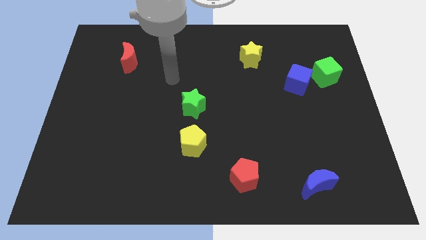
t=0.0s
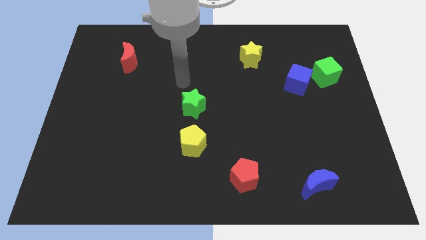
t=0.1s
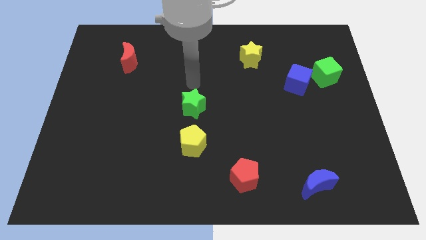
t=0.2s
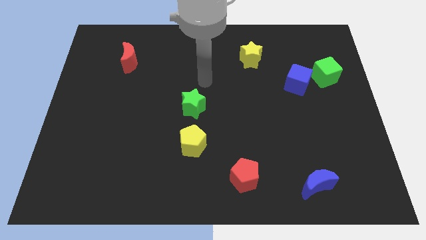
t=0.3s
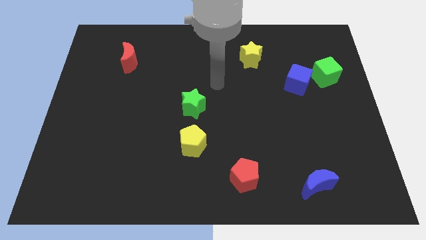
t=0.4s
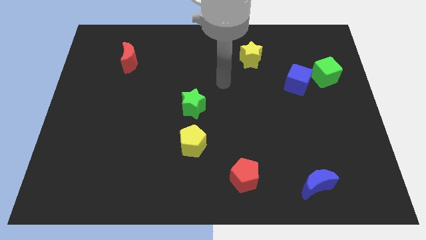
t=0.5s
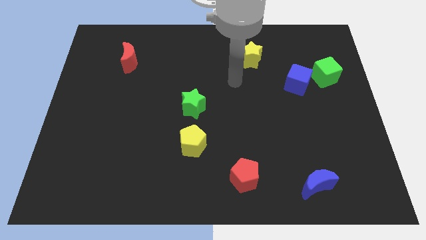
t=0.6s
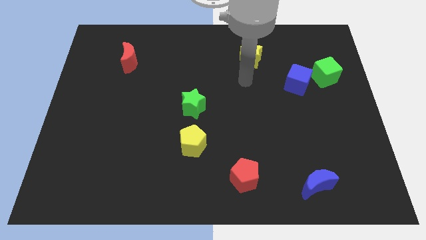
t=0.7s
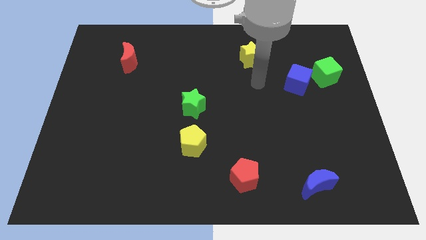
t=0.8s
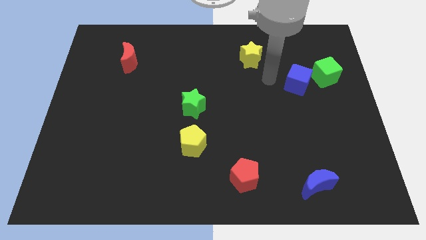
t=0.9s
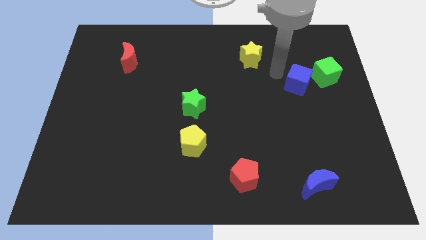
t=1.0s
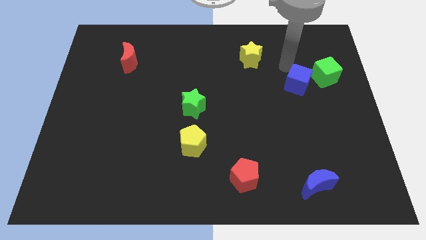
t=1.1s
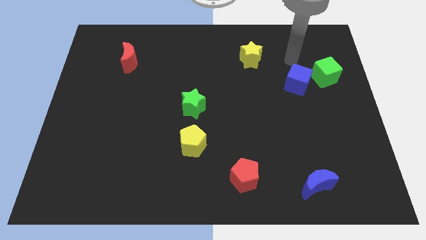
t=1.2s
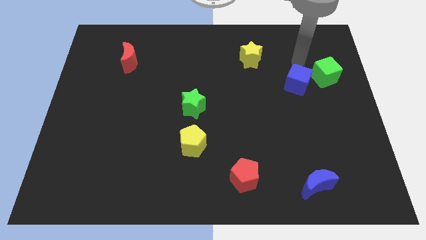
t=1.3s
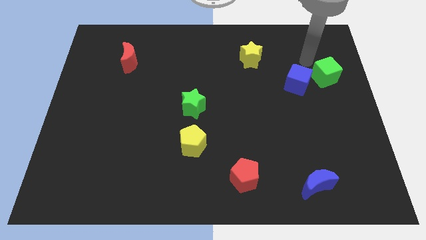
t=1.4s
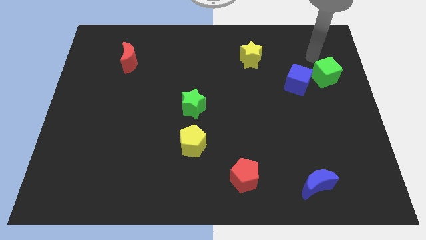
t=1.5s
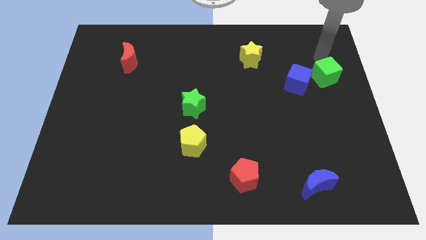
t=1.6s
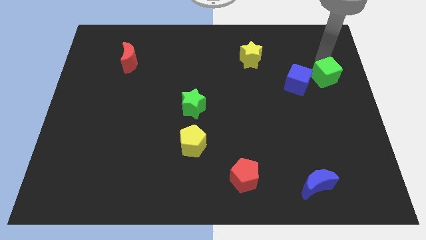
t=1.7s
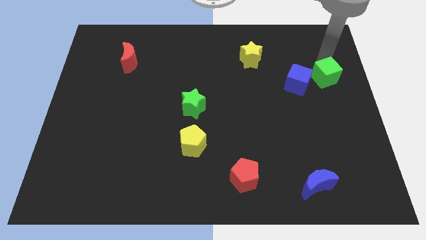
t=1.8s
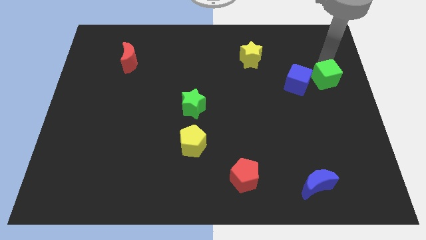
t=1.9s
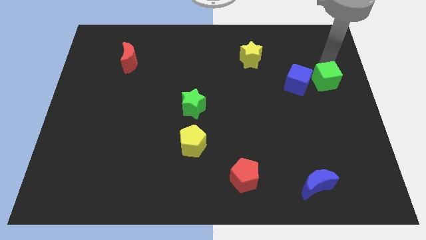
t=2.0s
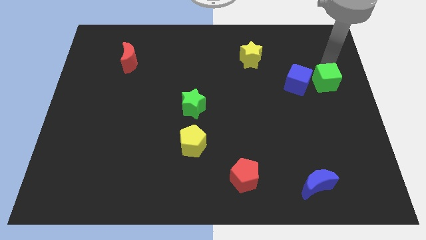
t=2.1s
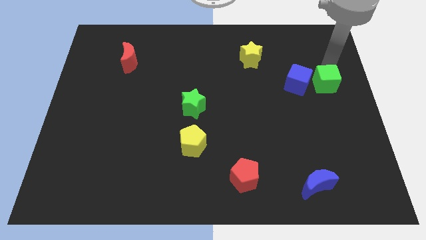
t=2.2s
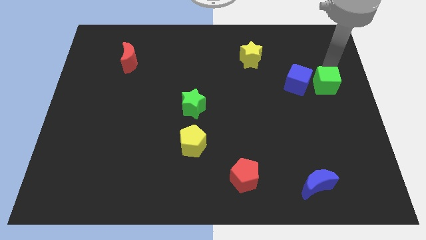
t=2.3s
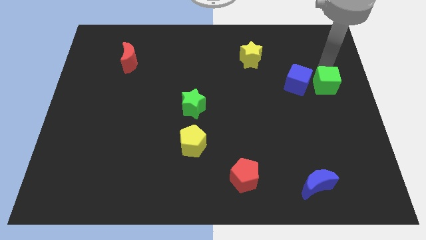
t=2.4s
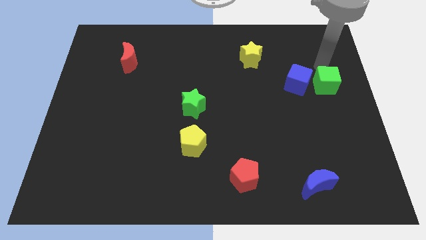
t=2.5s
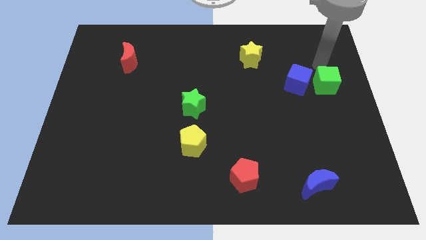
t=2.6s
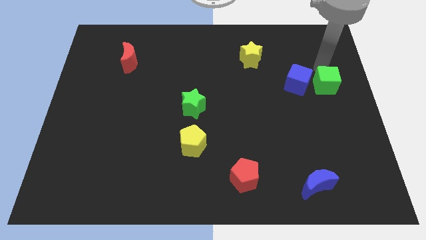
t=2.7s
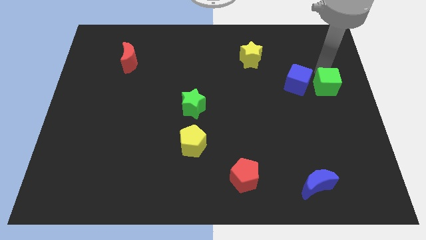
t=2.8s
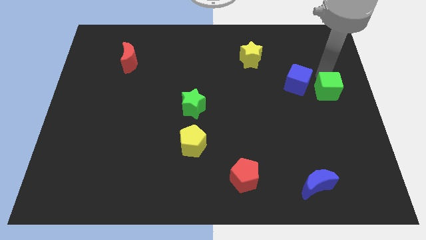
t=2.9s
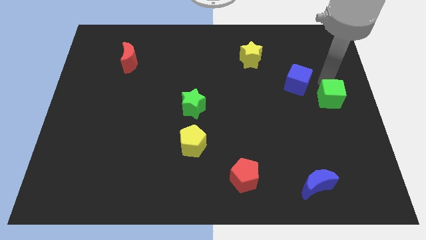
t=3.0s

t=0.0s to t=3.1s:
slightly slide the green cube downwards

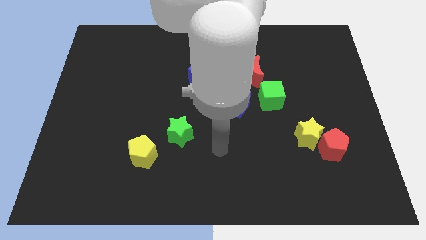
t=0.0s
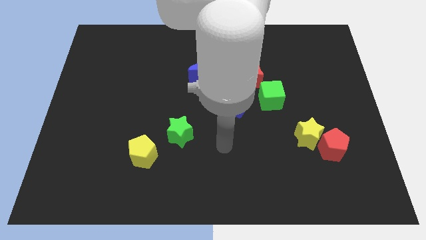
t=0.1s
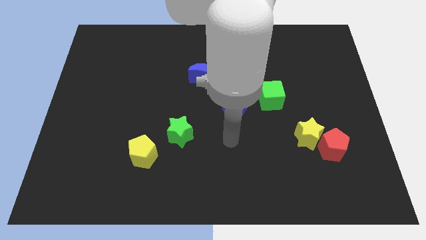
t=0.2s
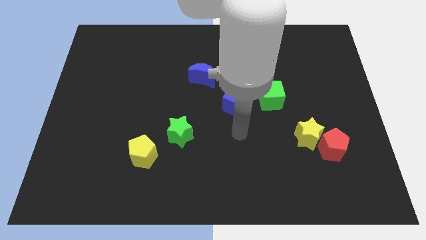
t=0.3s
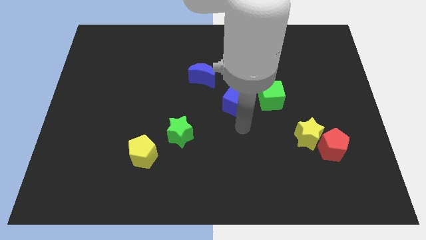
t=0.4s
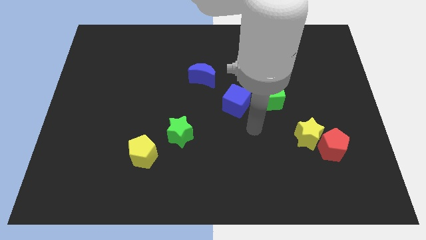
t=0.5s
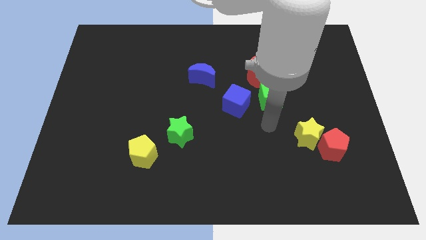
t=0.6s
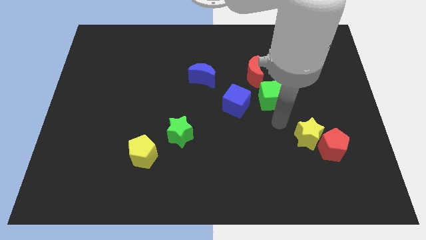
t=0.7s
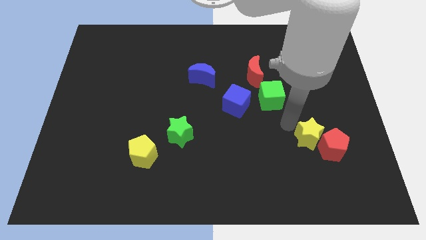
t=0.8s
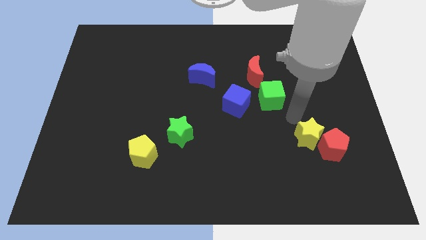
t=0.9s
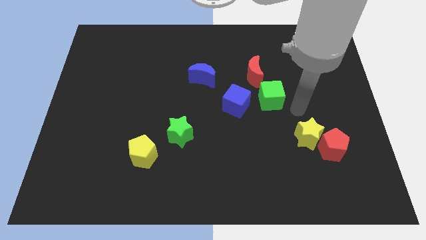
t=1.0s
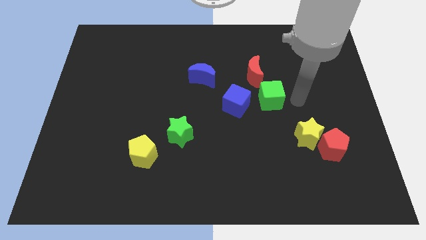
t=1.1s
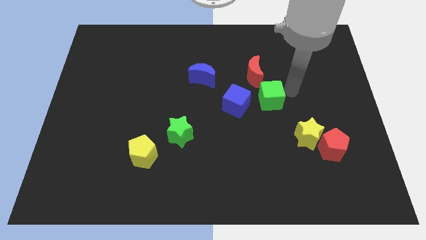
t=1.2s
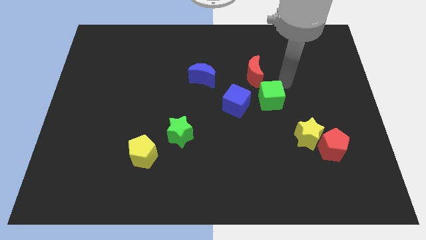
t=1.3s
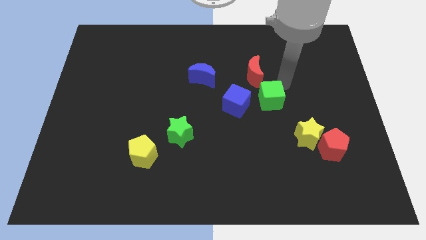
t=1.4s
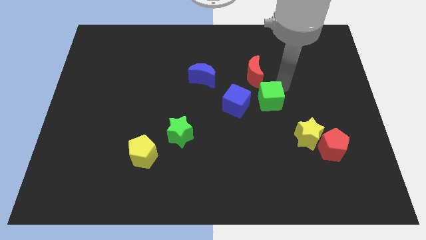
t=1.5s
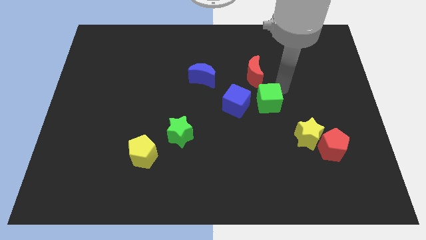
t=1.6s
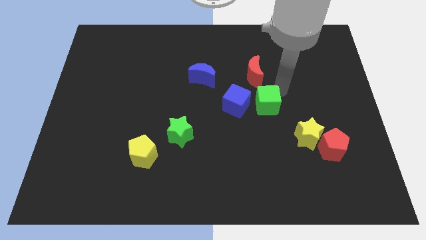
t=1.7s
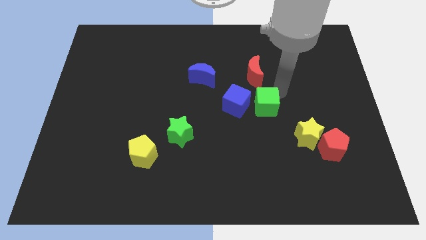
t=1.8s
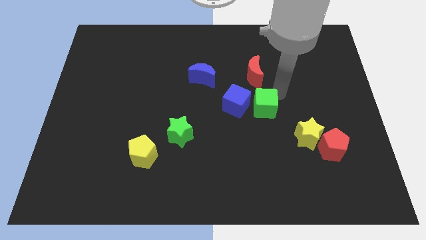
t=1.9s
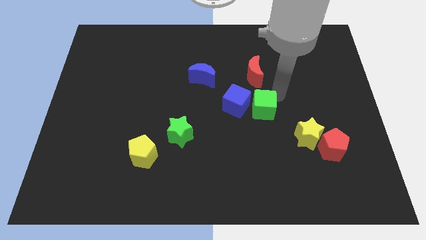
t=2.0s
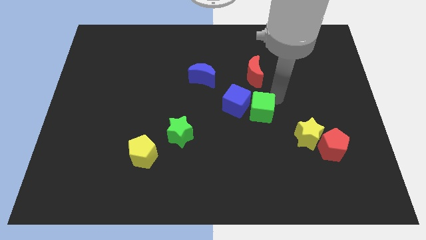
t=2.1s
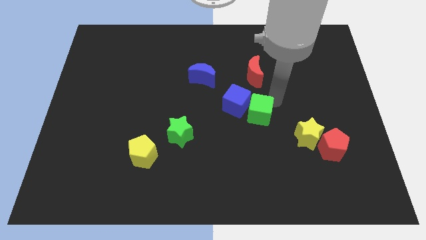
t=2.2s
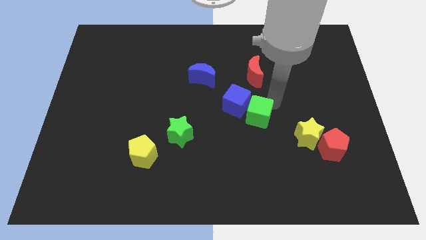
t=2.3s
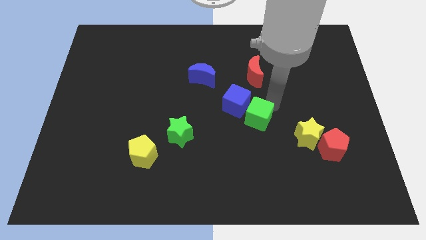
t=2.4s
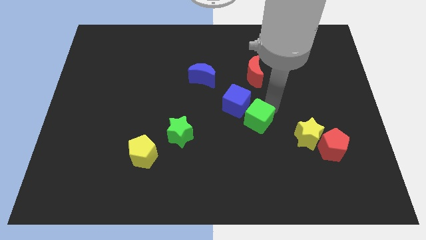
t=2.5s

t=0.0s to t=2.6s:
slightly push the green cube down and then left

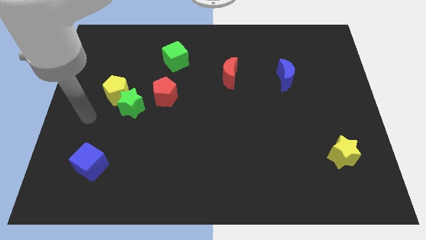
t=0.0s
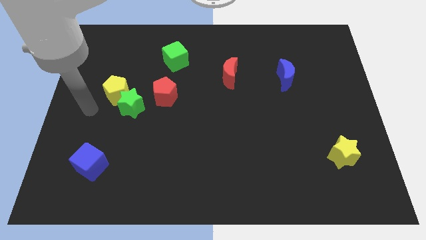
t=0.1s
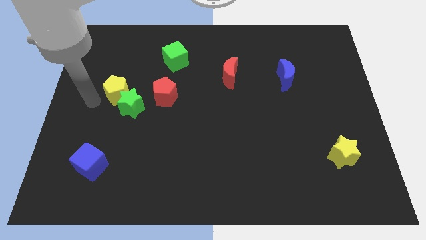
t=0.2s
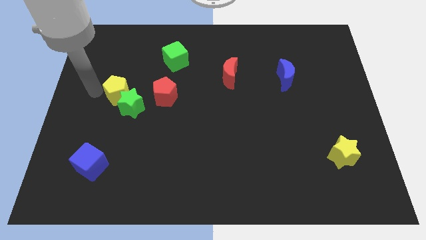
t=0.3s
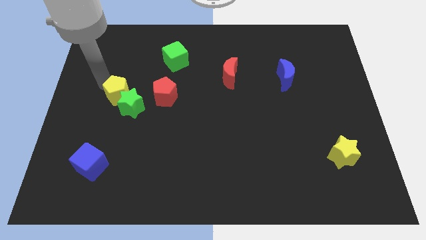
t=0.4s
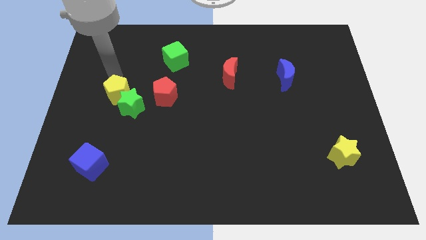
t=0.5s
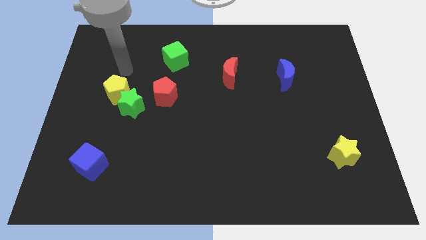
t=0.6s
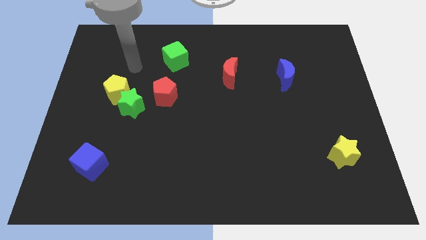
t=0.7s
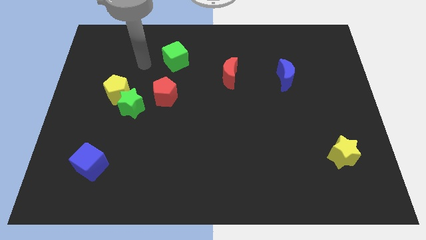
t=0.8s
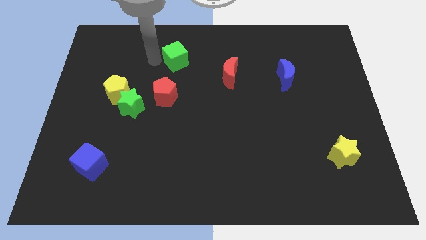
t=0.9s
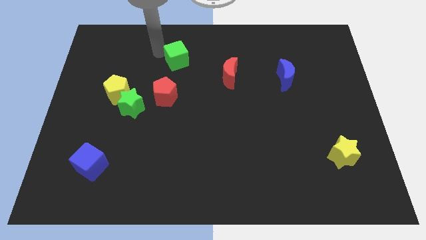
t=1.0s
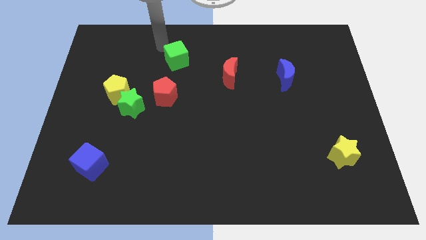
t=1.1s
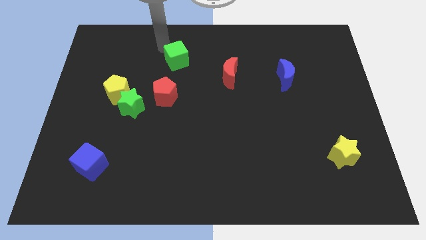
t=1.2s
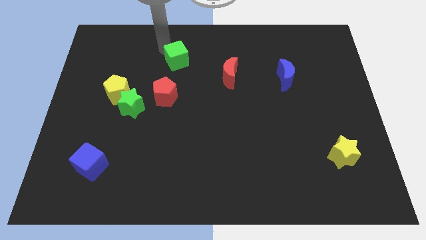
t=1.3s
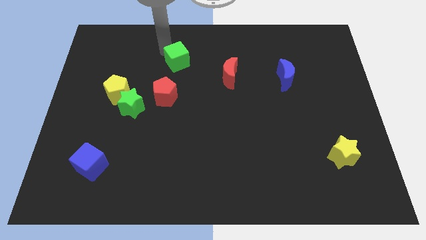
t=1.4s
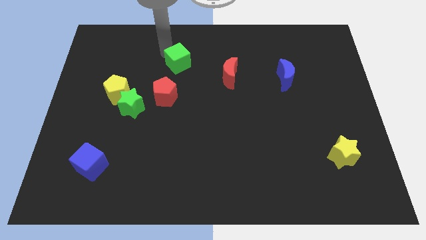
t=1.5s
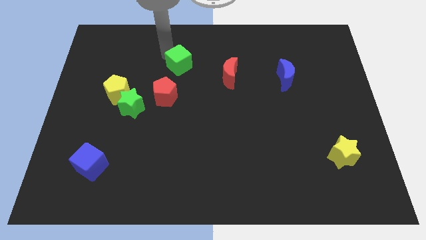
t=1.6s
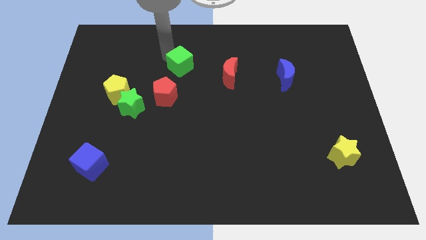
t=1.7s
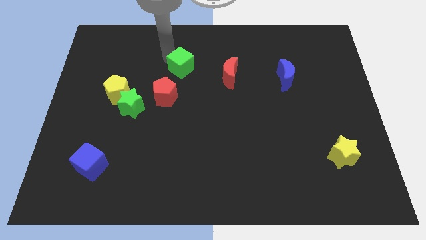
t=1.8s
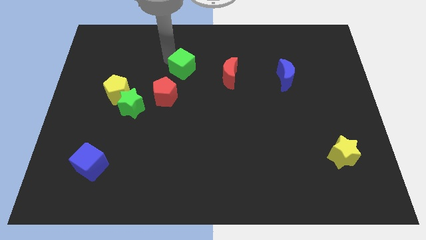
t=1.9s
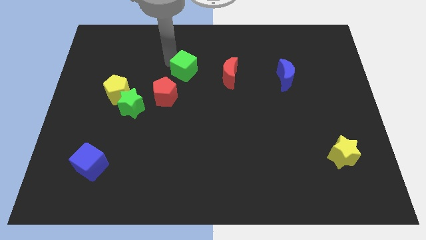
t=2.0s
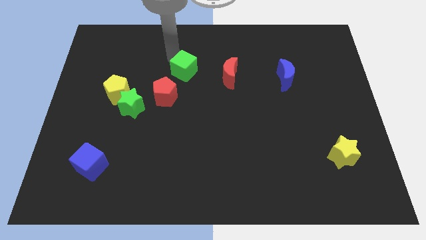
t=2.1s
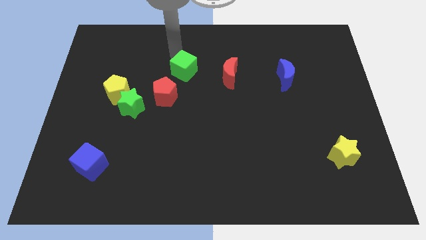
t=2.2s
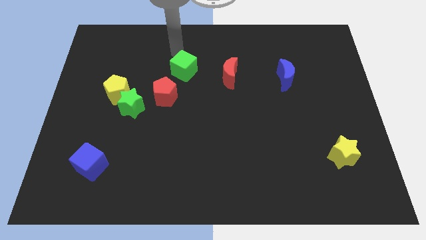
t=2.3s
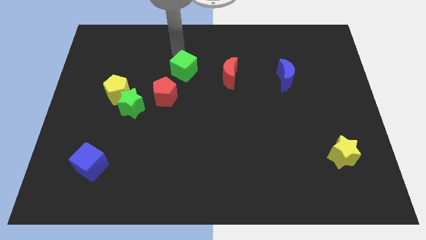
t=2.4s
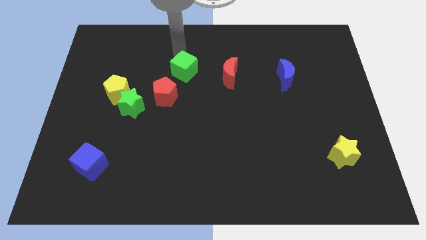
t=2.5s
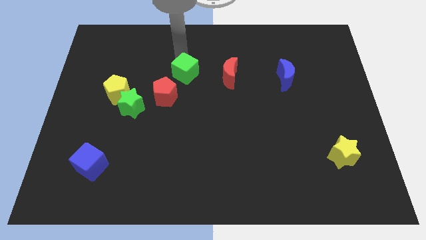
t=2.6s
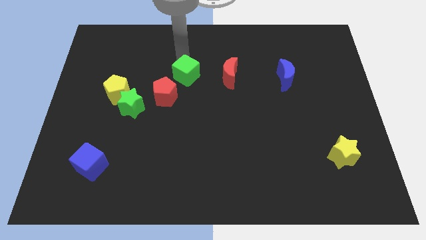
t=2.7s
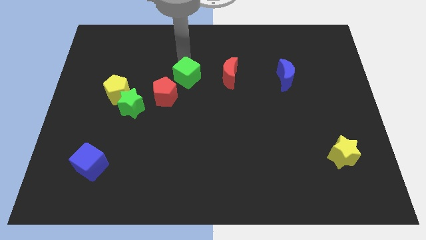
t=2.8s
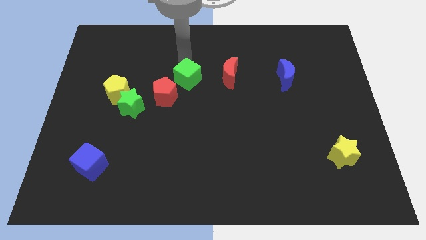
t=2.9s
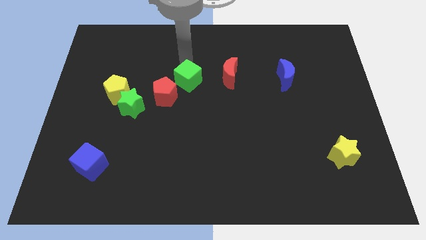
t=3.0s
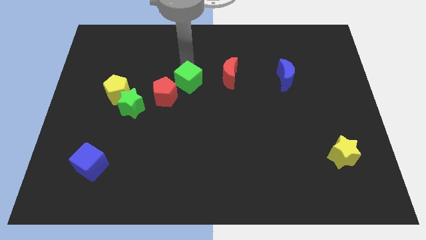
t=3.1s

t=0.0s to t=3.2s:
move the green cube downwards a bit
